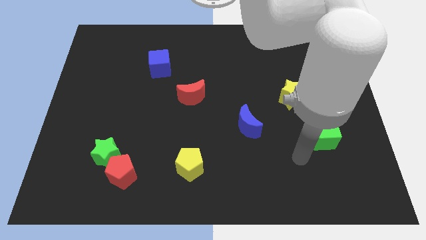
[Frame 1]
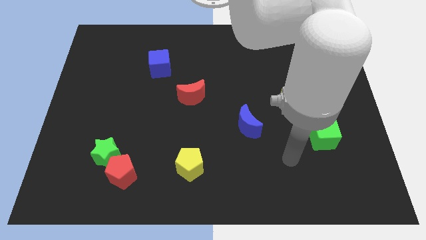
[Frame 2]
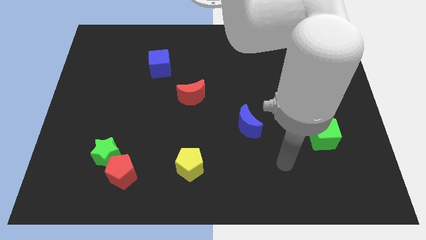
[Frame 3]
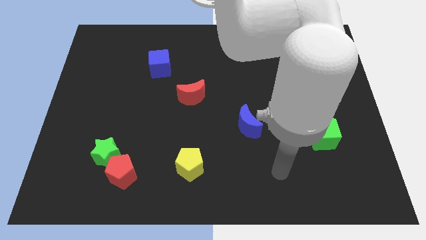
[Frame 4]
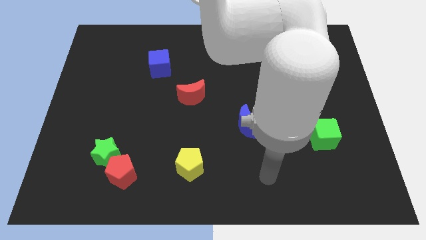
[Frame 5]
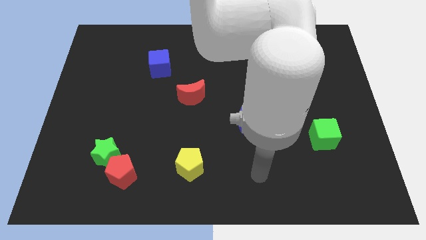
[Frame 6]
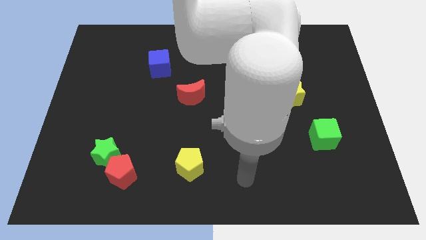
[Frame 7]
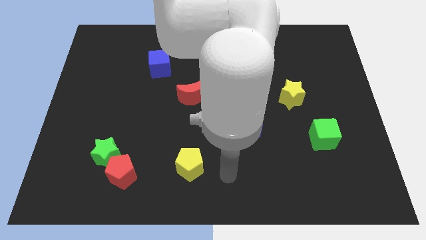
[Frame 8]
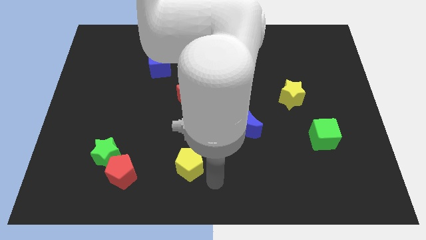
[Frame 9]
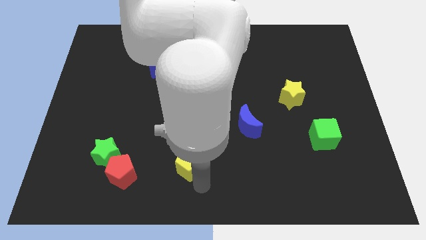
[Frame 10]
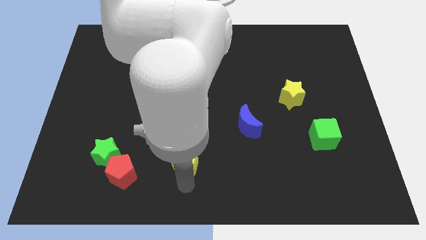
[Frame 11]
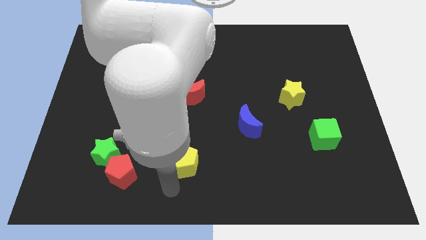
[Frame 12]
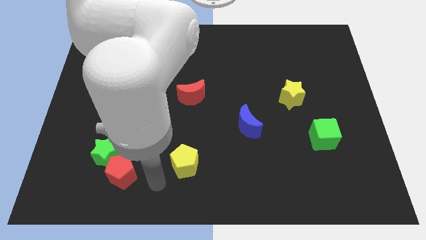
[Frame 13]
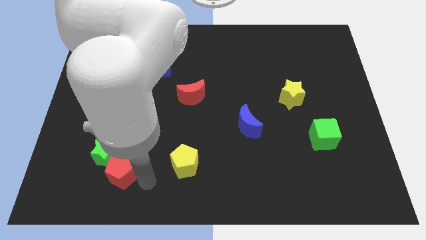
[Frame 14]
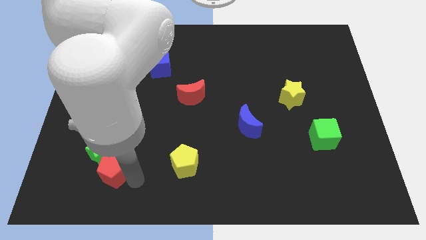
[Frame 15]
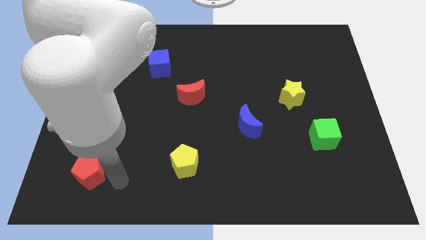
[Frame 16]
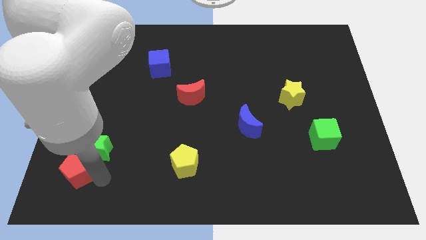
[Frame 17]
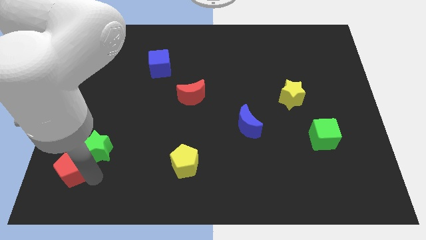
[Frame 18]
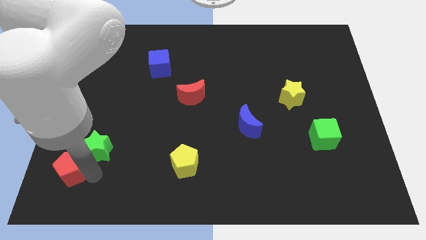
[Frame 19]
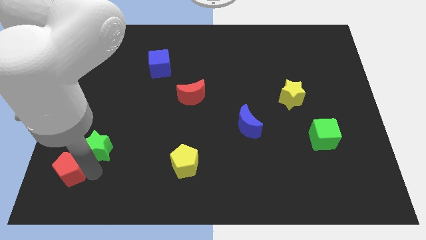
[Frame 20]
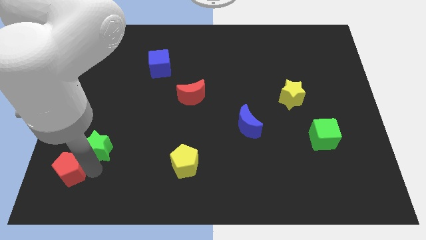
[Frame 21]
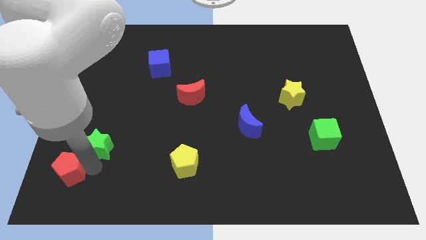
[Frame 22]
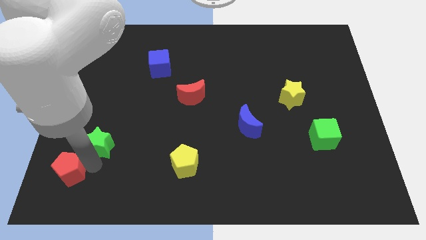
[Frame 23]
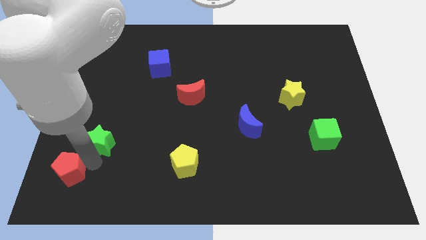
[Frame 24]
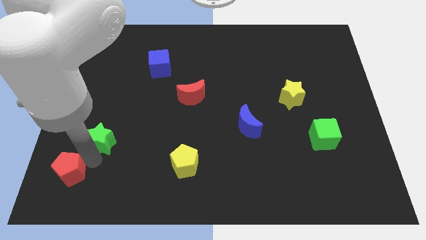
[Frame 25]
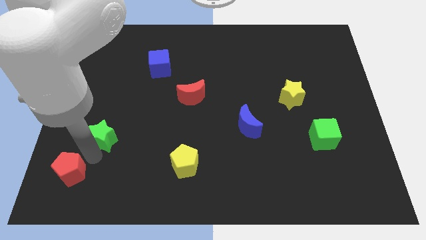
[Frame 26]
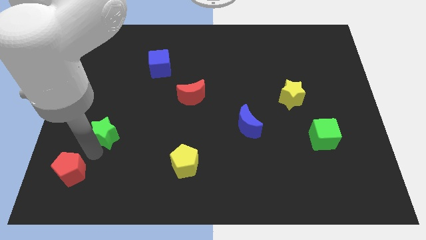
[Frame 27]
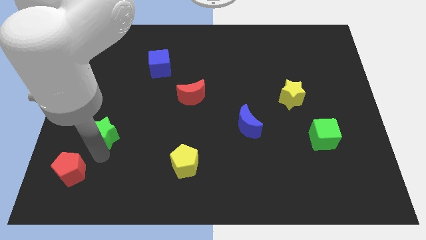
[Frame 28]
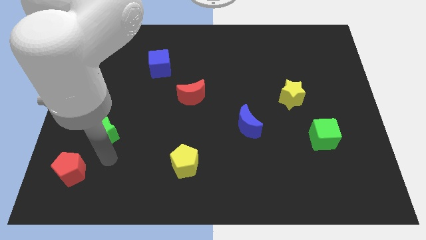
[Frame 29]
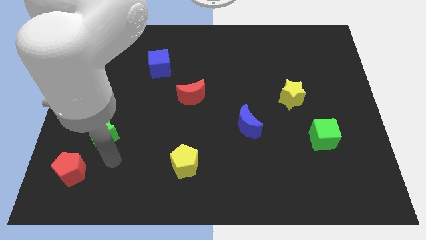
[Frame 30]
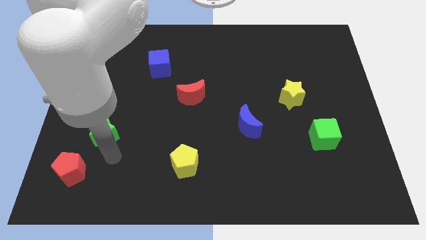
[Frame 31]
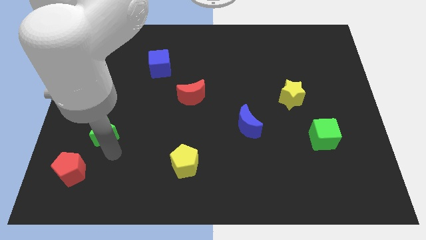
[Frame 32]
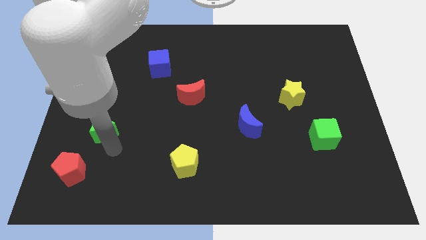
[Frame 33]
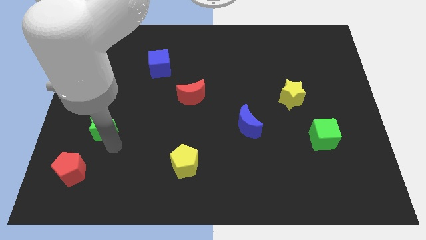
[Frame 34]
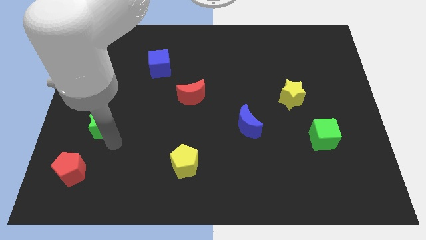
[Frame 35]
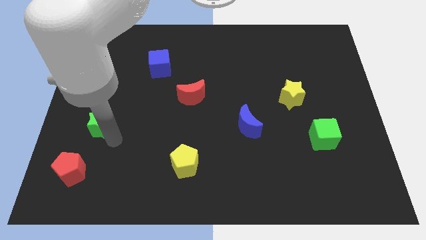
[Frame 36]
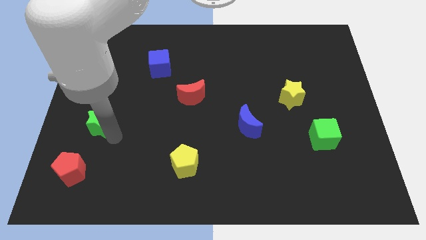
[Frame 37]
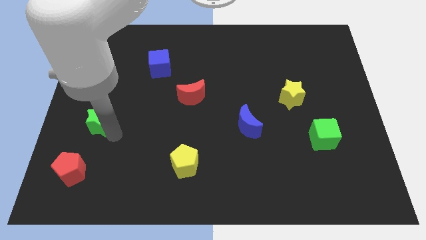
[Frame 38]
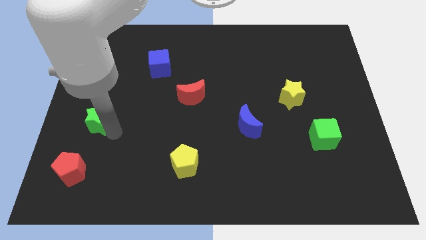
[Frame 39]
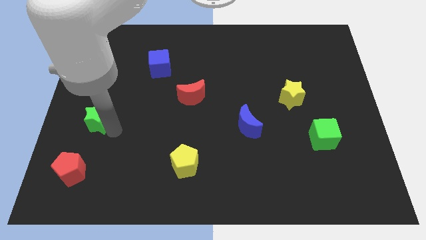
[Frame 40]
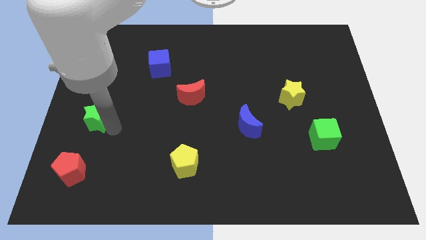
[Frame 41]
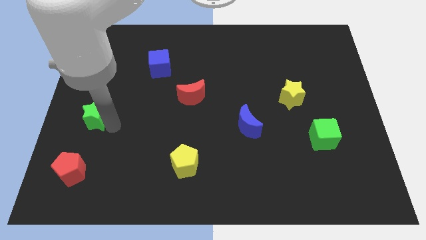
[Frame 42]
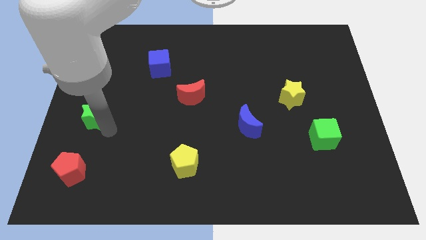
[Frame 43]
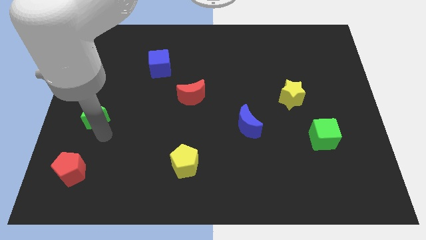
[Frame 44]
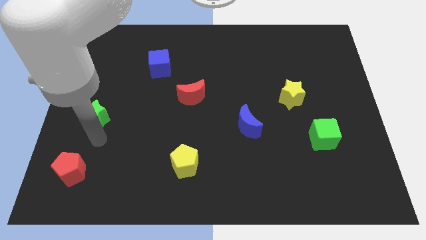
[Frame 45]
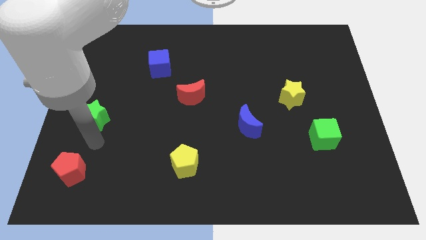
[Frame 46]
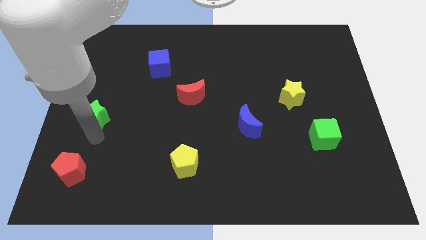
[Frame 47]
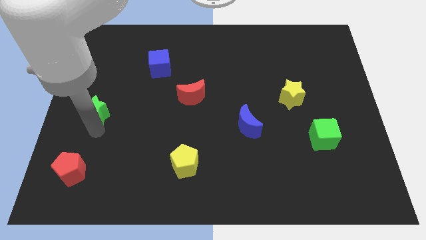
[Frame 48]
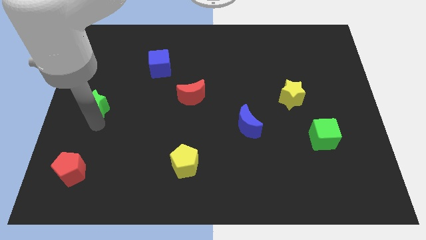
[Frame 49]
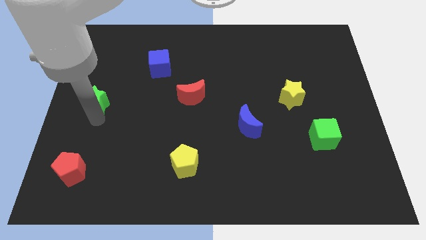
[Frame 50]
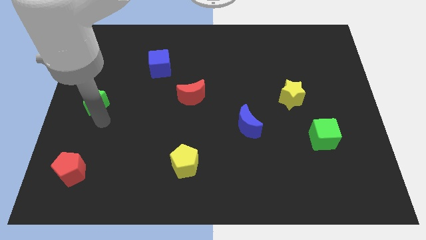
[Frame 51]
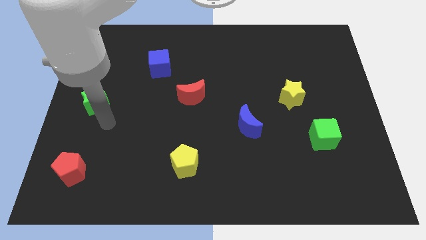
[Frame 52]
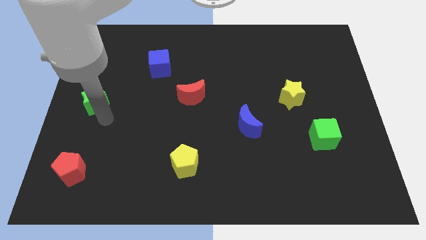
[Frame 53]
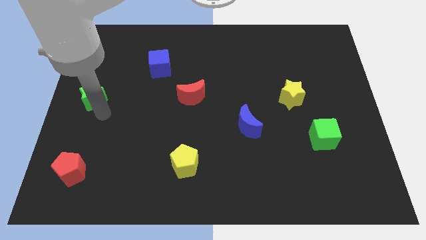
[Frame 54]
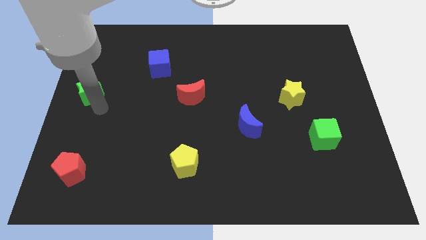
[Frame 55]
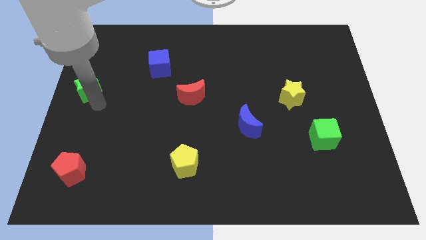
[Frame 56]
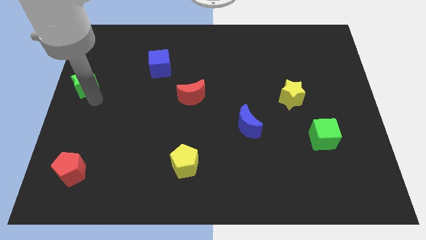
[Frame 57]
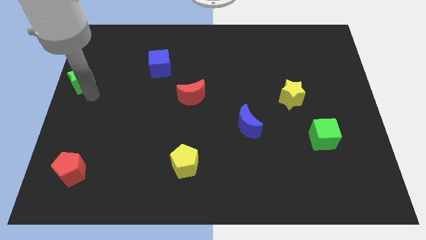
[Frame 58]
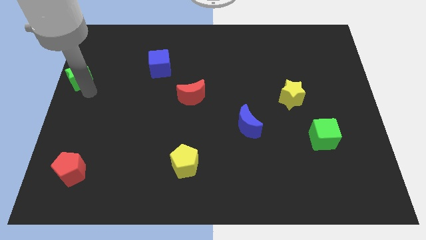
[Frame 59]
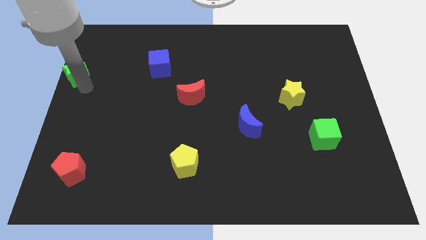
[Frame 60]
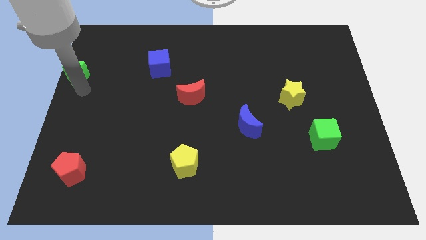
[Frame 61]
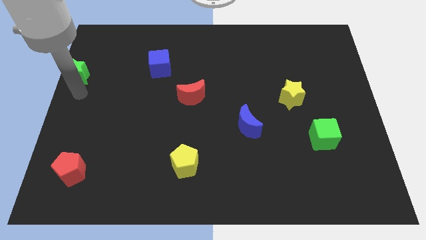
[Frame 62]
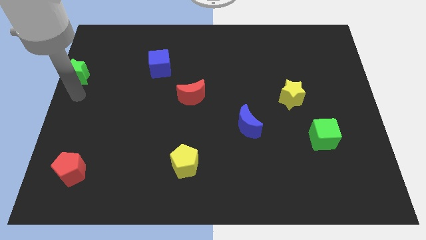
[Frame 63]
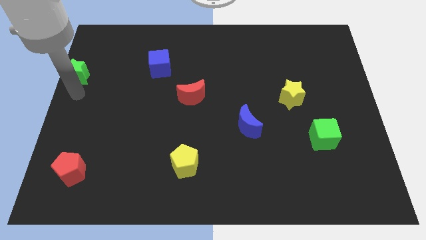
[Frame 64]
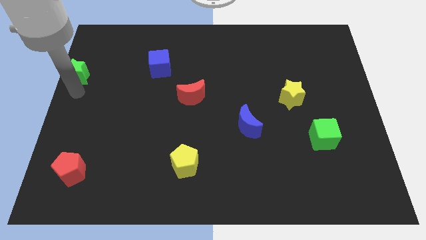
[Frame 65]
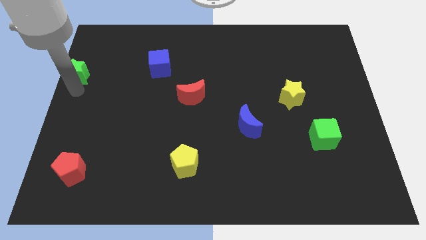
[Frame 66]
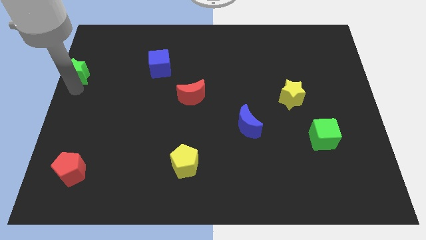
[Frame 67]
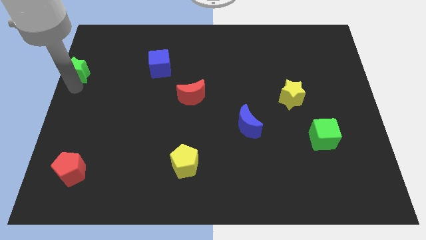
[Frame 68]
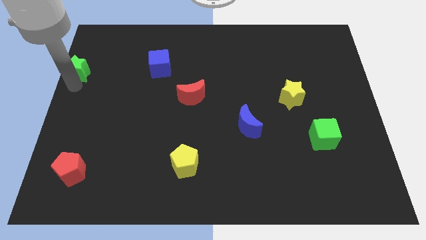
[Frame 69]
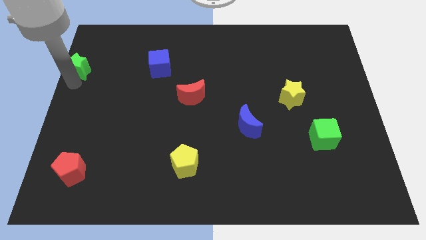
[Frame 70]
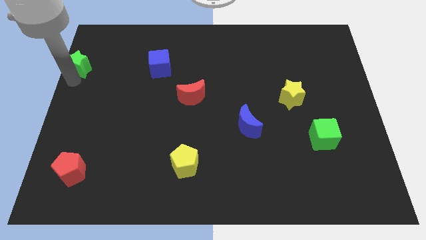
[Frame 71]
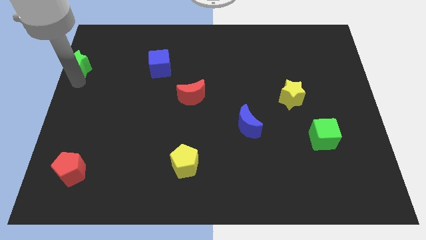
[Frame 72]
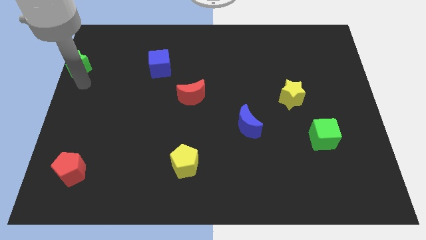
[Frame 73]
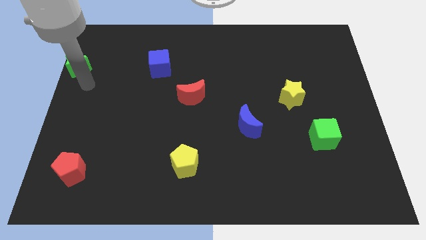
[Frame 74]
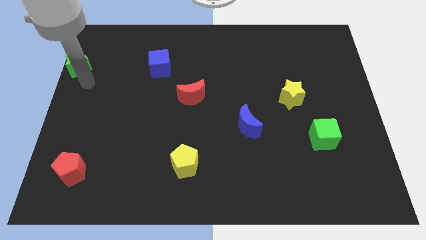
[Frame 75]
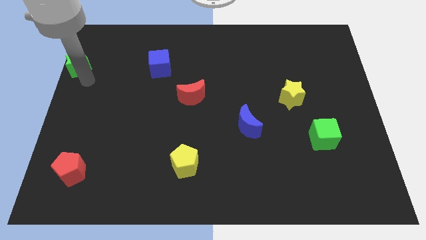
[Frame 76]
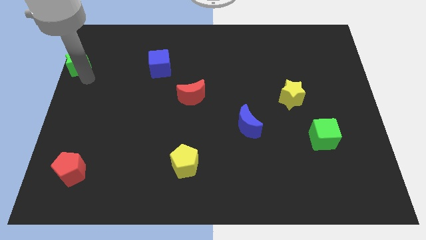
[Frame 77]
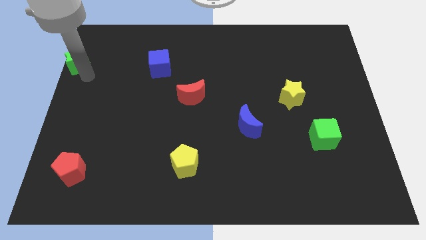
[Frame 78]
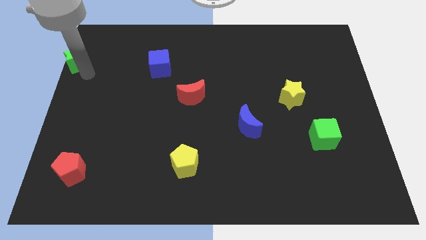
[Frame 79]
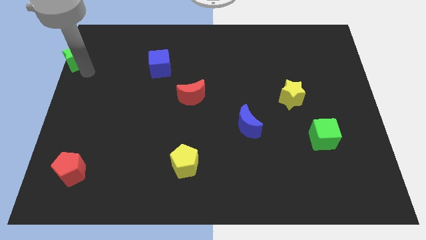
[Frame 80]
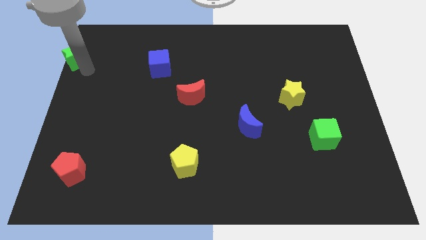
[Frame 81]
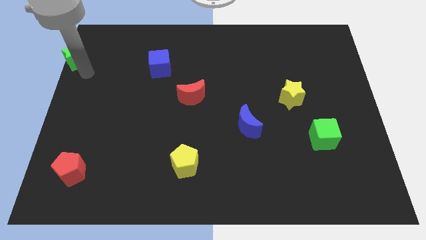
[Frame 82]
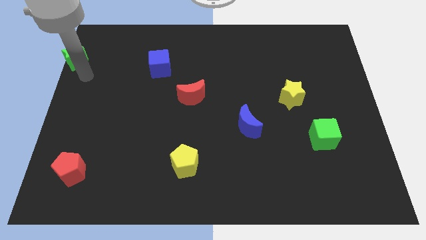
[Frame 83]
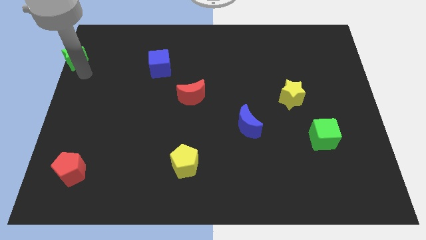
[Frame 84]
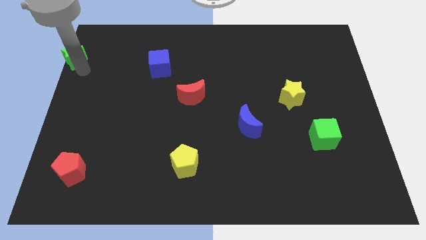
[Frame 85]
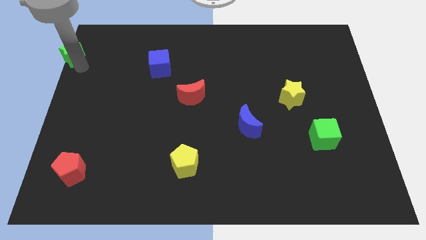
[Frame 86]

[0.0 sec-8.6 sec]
slide the green star to the top left
